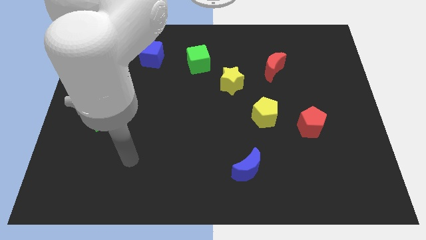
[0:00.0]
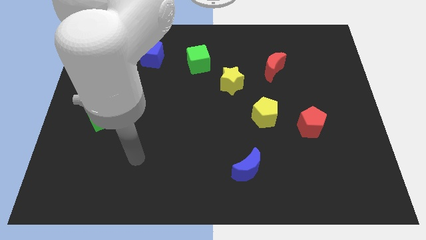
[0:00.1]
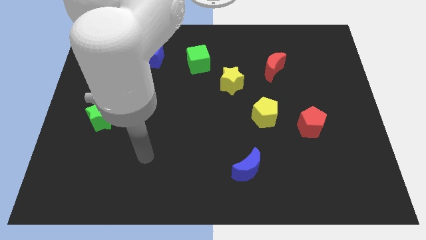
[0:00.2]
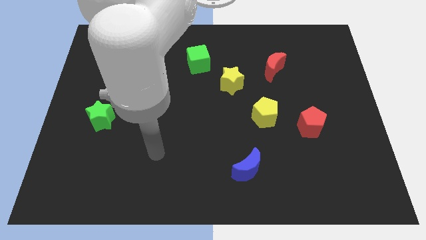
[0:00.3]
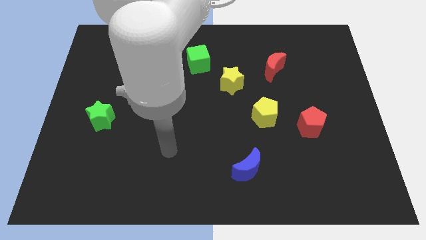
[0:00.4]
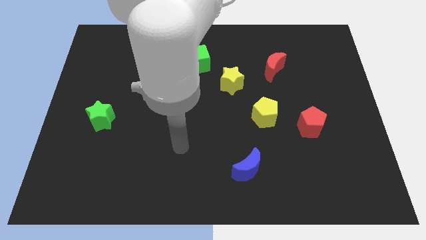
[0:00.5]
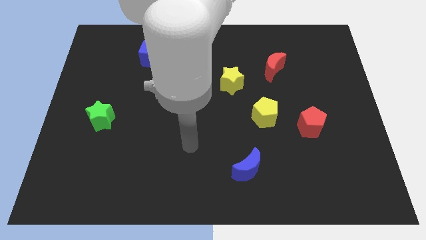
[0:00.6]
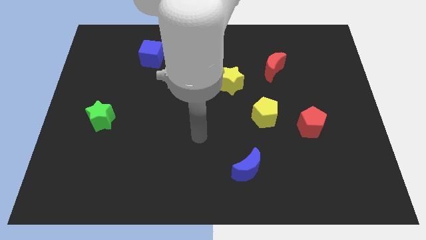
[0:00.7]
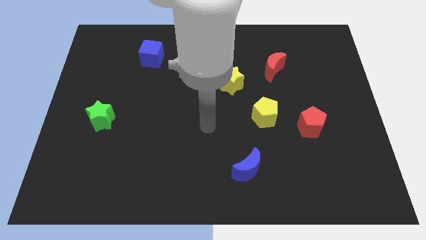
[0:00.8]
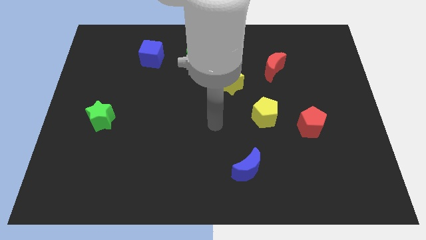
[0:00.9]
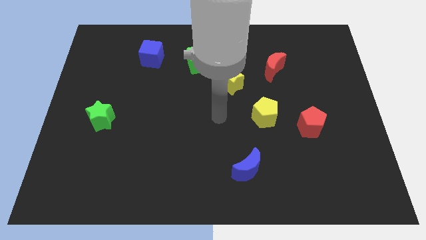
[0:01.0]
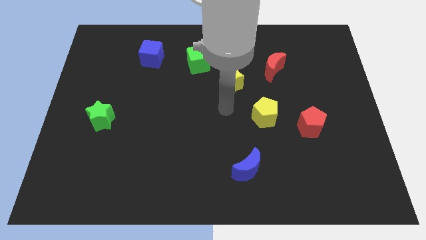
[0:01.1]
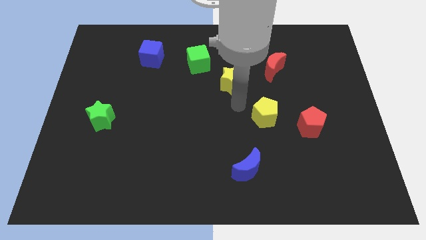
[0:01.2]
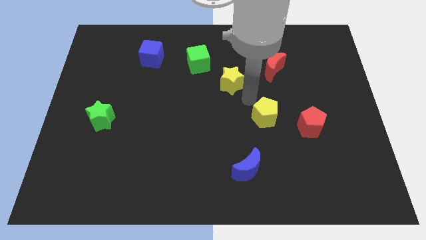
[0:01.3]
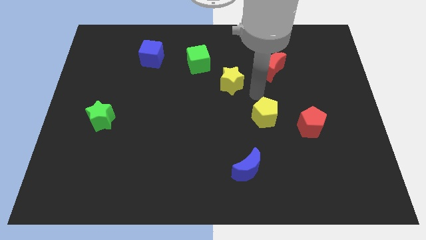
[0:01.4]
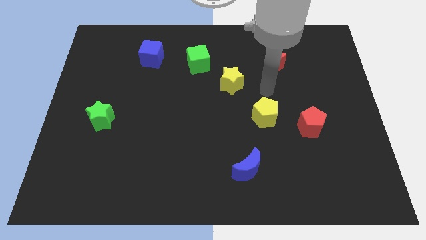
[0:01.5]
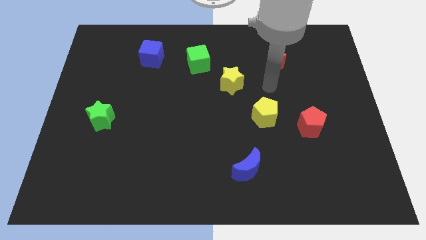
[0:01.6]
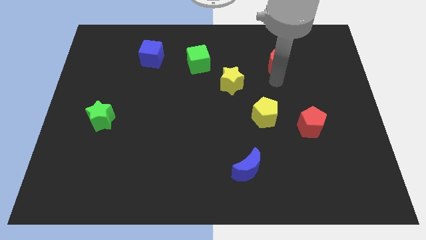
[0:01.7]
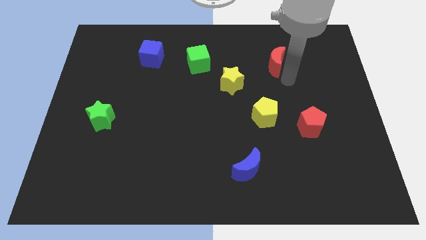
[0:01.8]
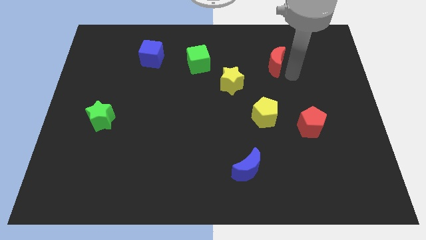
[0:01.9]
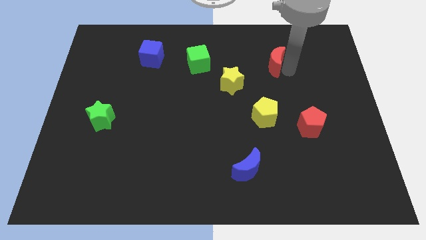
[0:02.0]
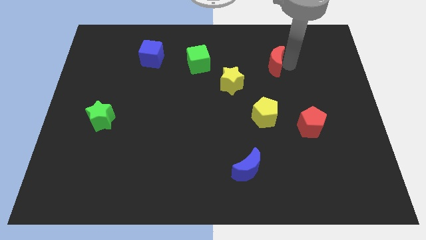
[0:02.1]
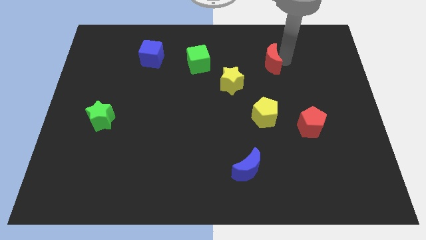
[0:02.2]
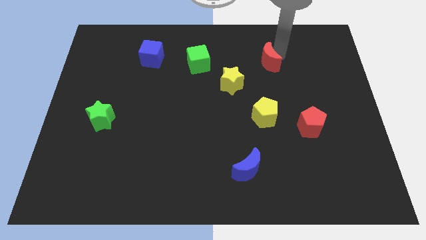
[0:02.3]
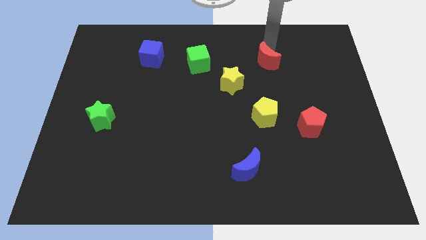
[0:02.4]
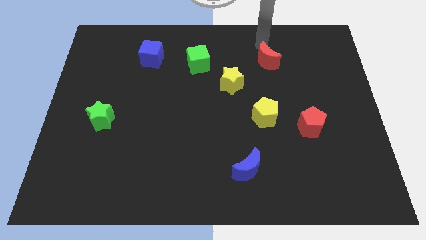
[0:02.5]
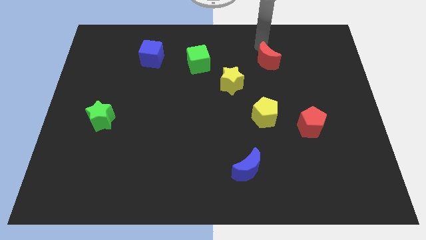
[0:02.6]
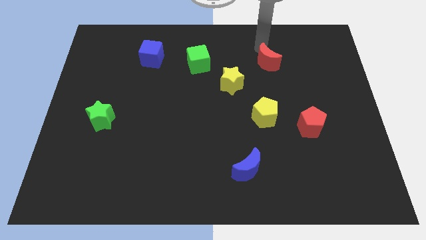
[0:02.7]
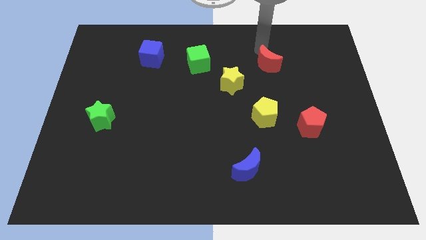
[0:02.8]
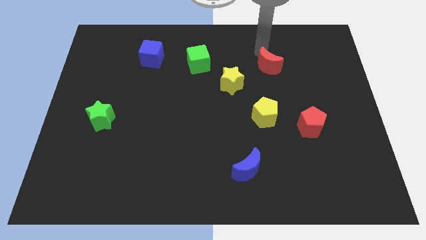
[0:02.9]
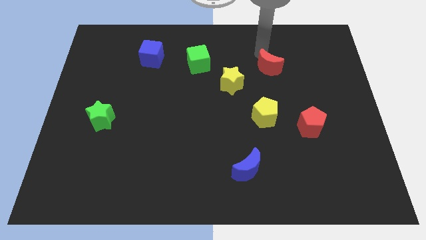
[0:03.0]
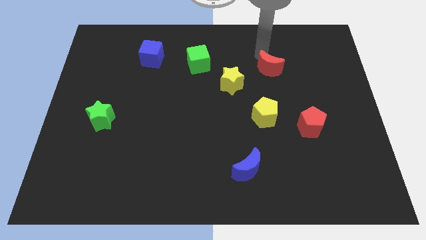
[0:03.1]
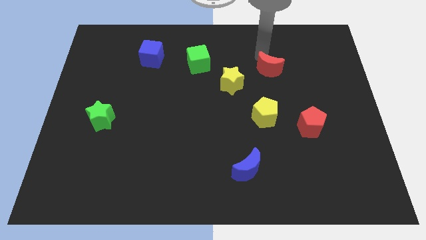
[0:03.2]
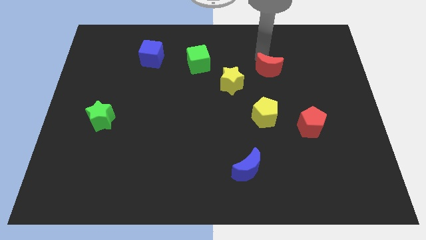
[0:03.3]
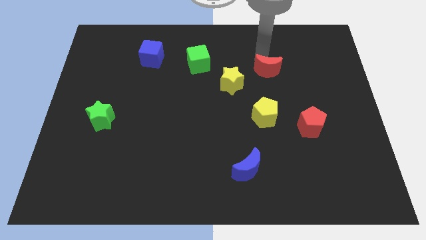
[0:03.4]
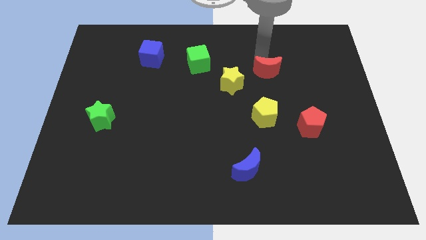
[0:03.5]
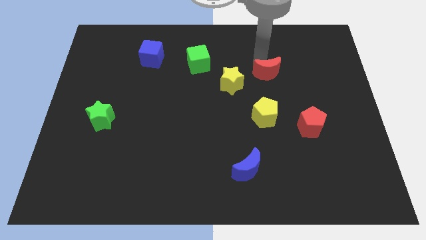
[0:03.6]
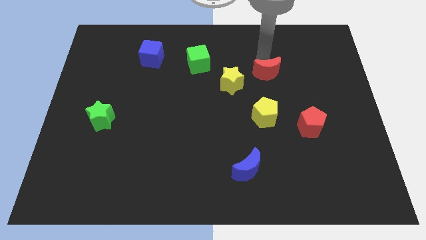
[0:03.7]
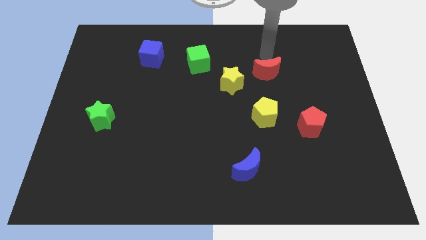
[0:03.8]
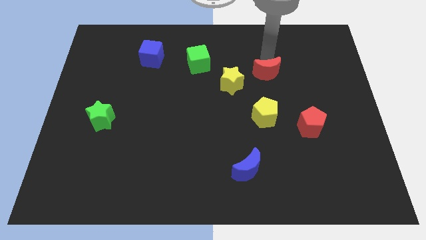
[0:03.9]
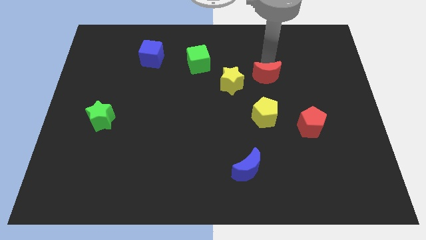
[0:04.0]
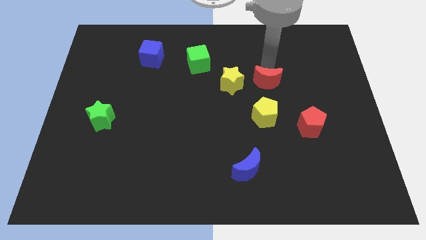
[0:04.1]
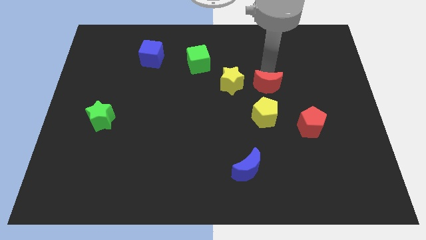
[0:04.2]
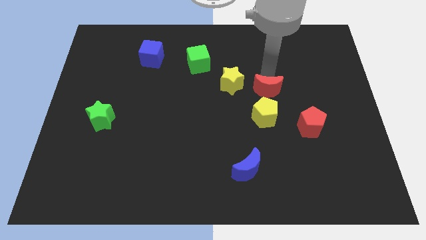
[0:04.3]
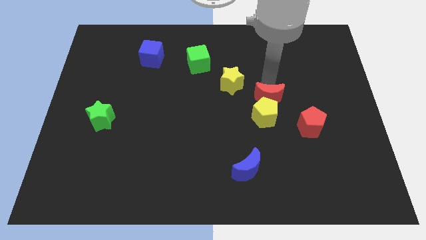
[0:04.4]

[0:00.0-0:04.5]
slide the red moon towards the yellow pentagon

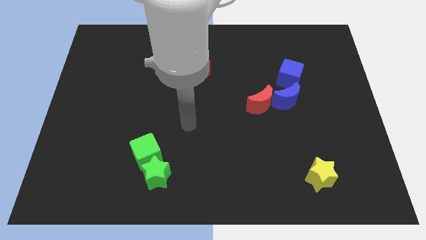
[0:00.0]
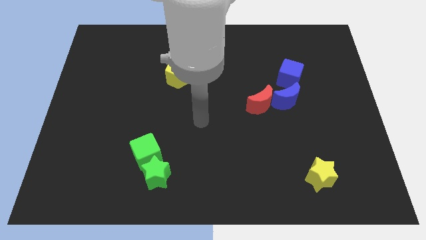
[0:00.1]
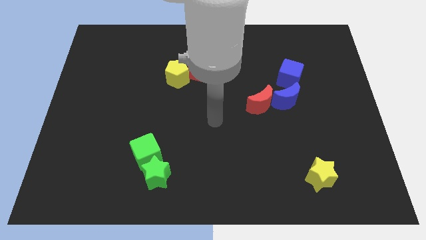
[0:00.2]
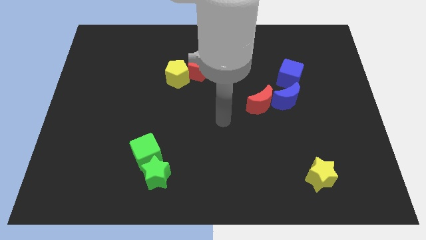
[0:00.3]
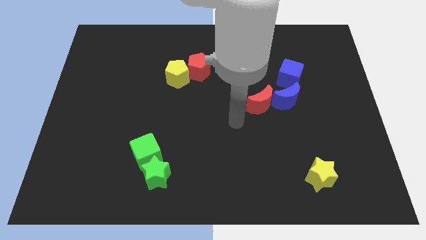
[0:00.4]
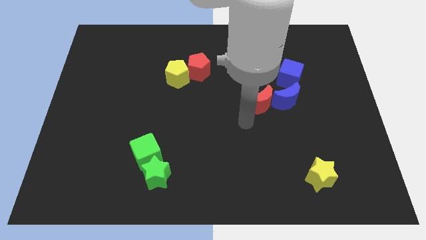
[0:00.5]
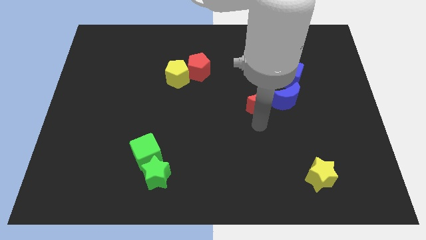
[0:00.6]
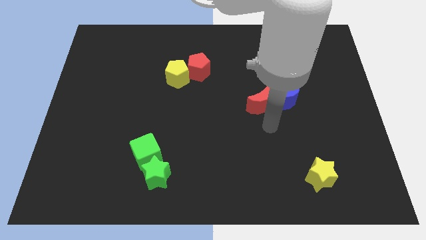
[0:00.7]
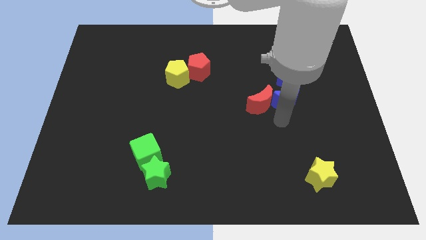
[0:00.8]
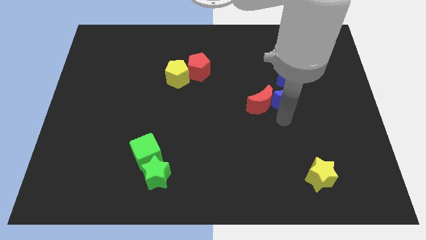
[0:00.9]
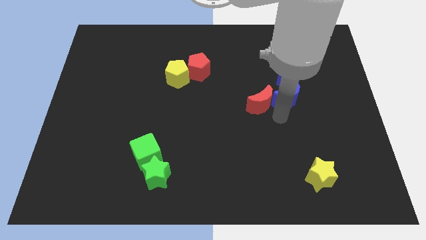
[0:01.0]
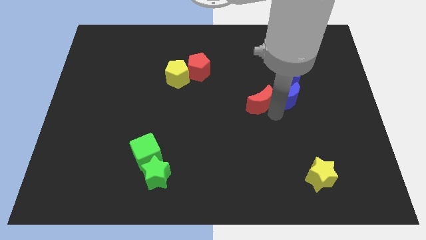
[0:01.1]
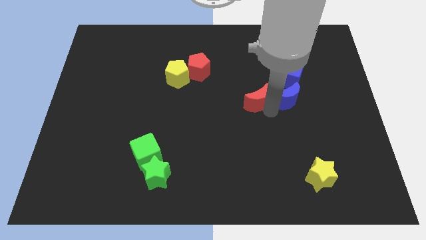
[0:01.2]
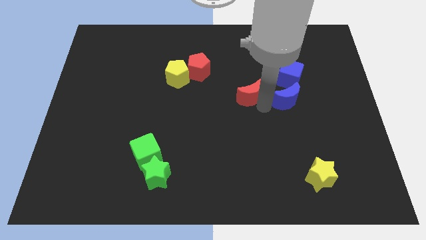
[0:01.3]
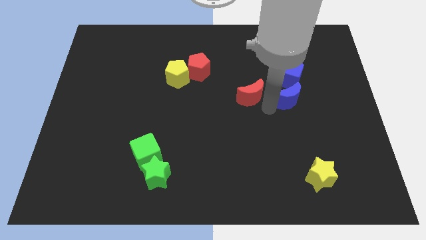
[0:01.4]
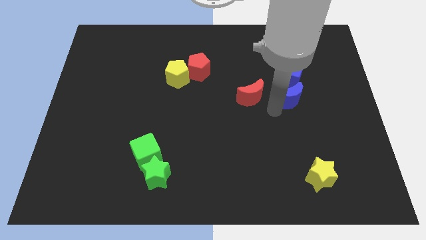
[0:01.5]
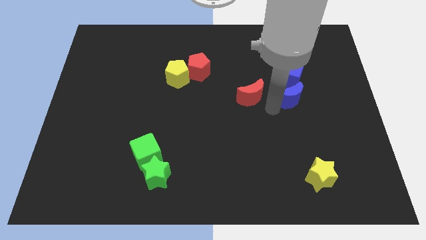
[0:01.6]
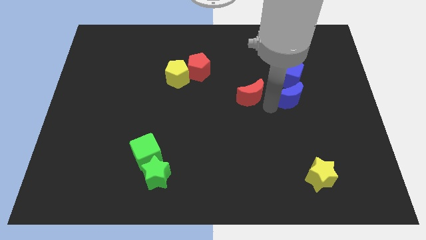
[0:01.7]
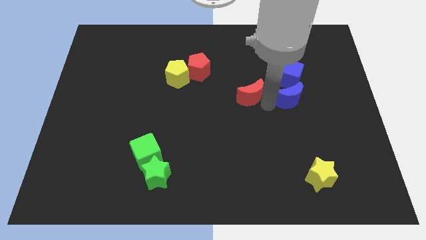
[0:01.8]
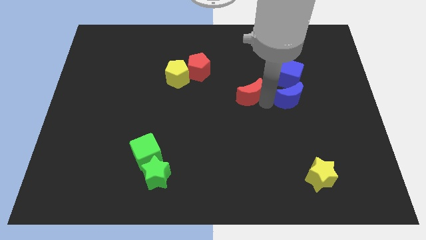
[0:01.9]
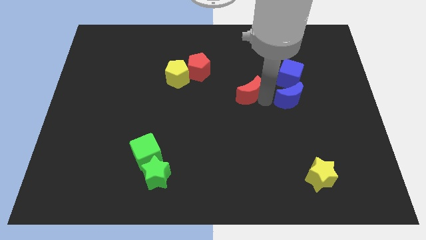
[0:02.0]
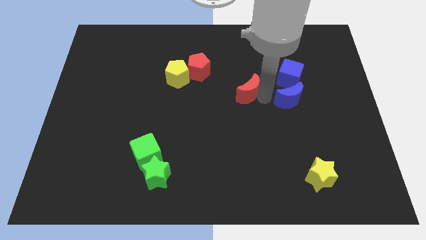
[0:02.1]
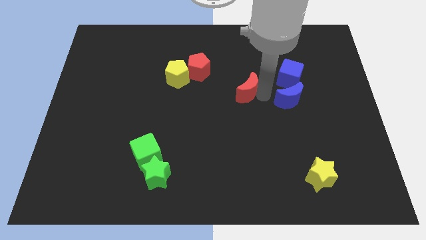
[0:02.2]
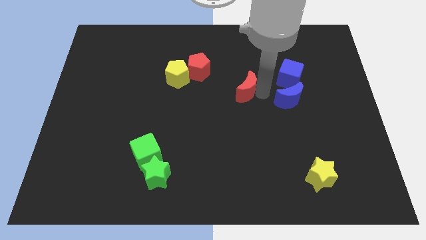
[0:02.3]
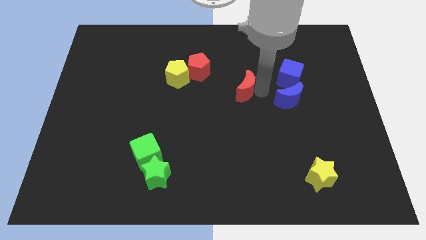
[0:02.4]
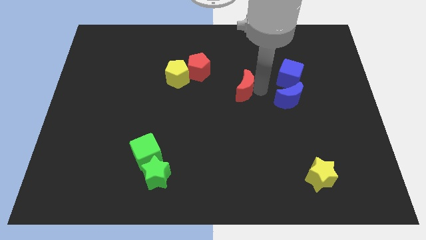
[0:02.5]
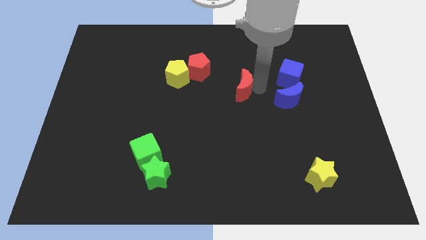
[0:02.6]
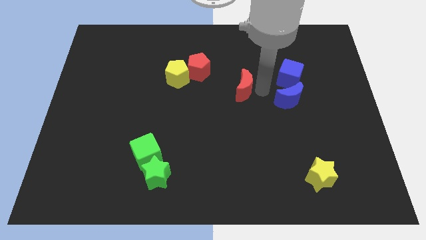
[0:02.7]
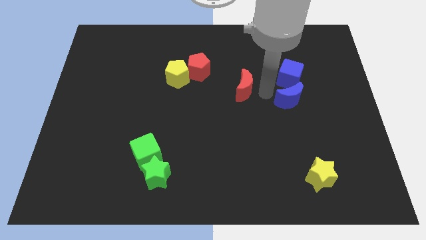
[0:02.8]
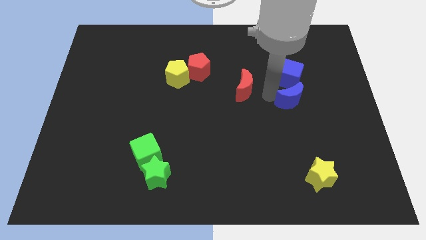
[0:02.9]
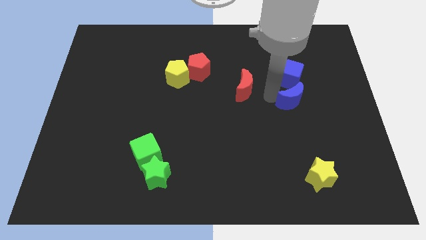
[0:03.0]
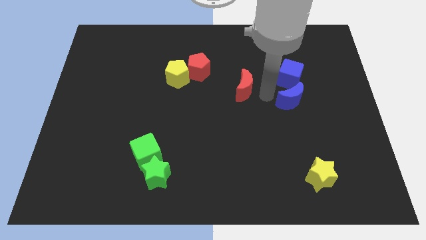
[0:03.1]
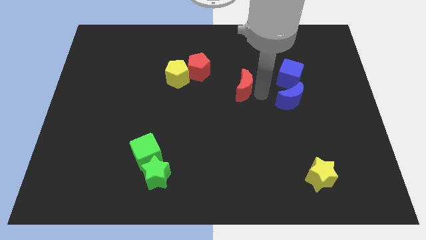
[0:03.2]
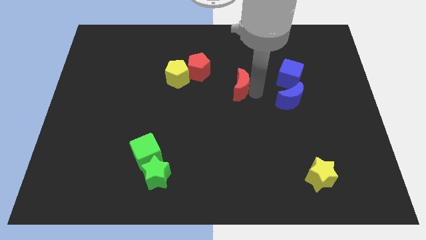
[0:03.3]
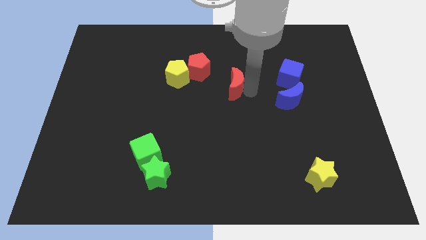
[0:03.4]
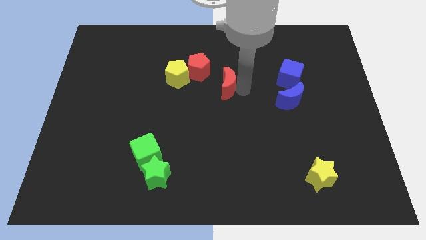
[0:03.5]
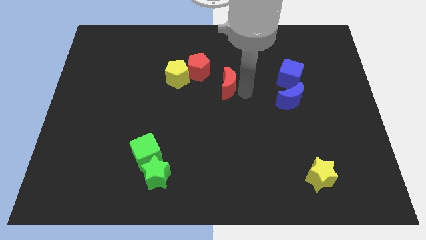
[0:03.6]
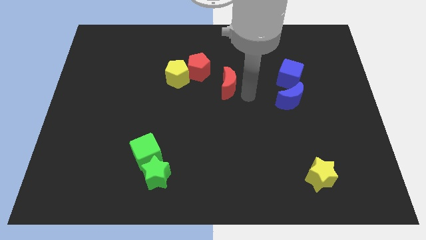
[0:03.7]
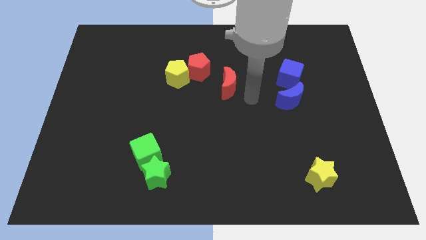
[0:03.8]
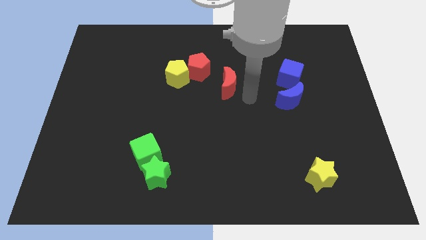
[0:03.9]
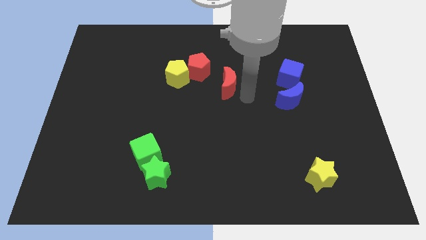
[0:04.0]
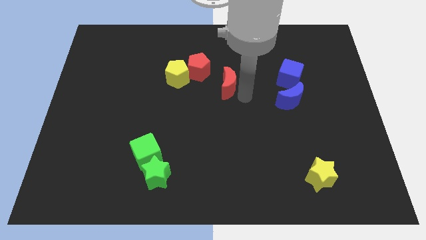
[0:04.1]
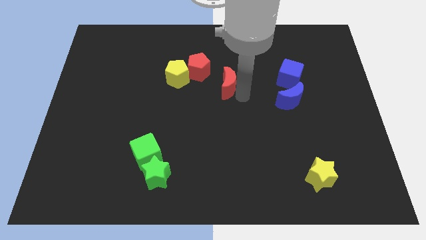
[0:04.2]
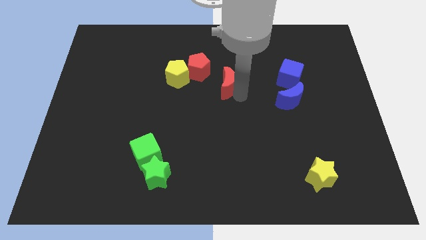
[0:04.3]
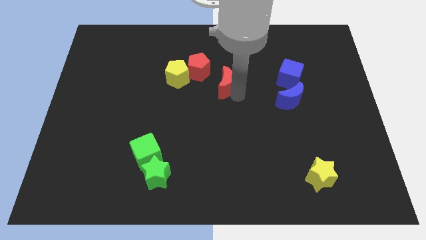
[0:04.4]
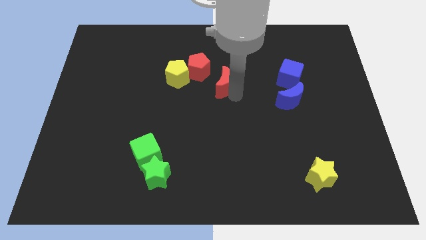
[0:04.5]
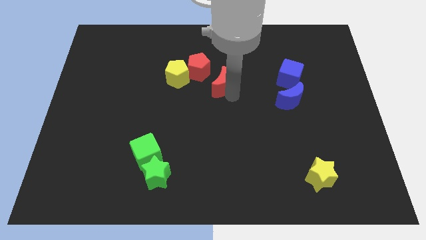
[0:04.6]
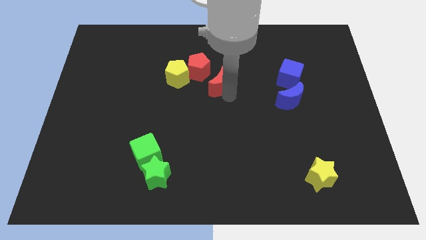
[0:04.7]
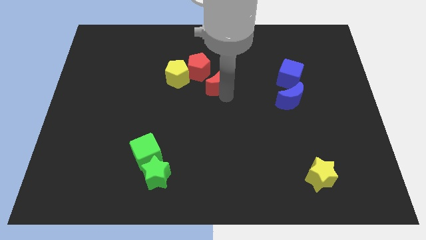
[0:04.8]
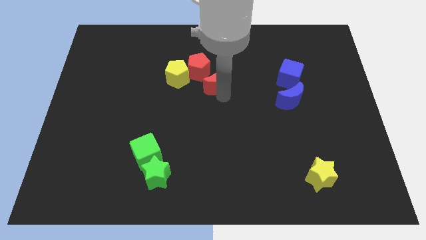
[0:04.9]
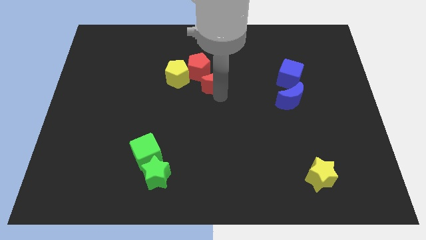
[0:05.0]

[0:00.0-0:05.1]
slide the red moon close to the red pentagon
